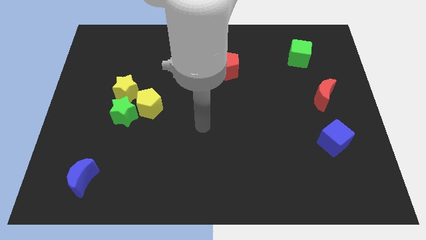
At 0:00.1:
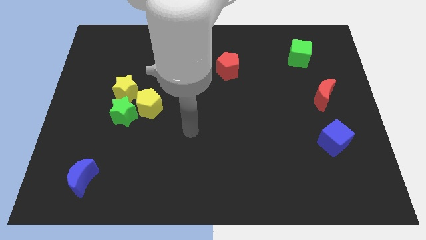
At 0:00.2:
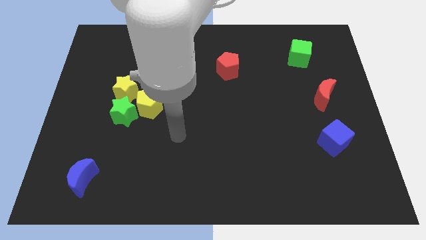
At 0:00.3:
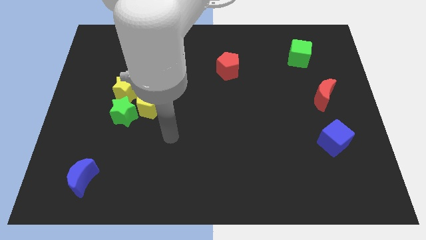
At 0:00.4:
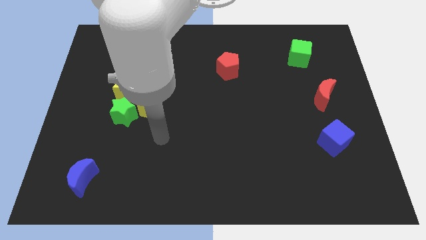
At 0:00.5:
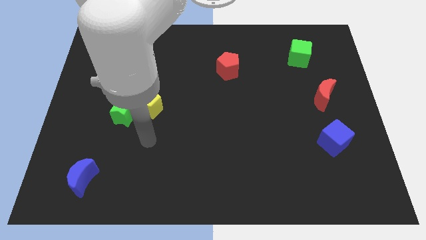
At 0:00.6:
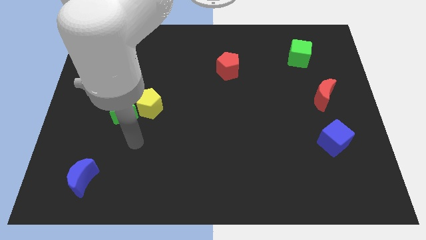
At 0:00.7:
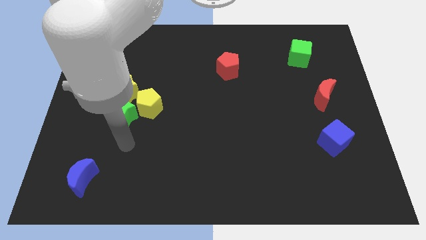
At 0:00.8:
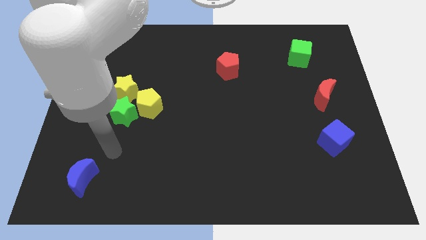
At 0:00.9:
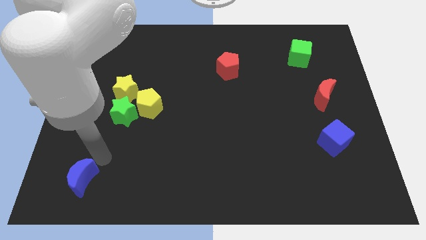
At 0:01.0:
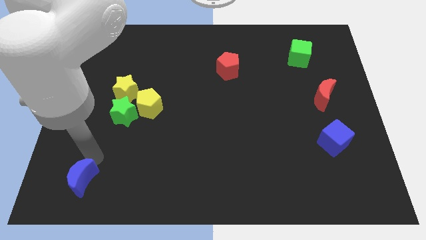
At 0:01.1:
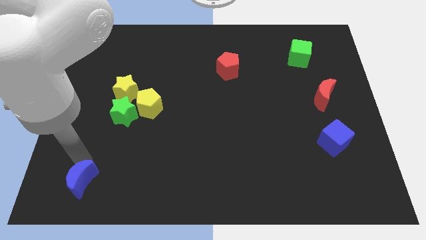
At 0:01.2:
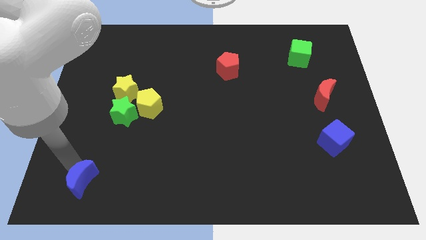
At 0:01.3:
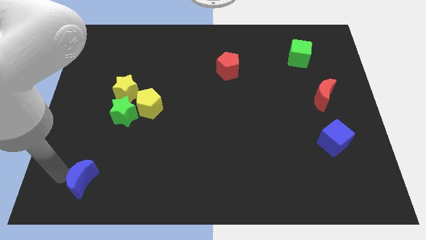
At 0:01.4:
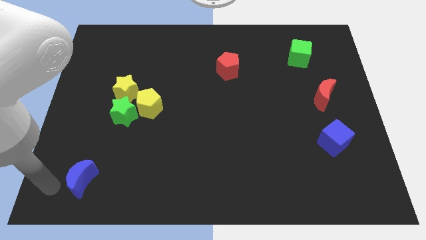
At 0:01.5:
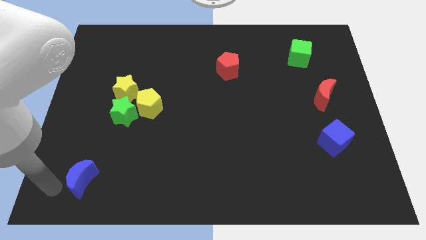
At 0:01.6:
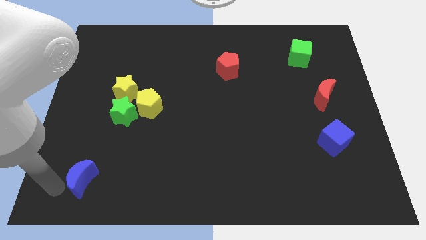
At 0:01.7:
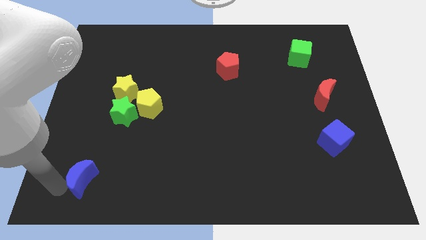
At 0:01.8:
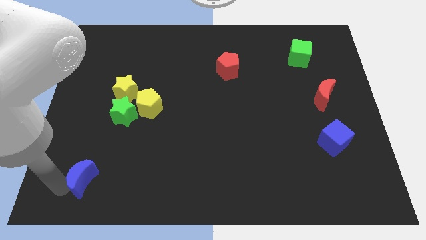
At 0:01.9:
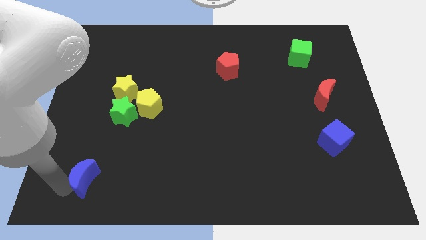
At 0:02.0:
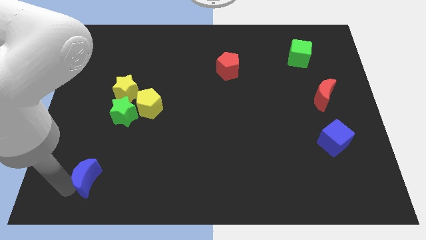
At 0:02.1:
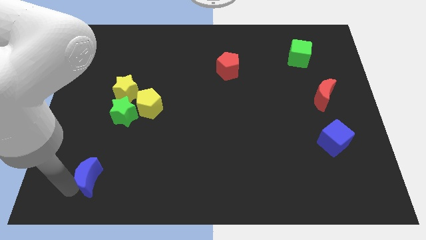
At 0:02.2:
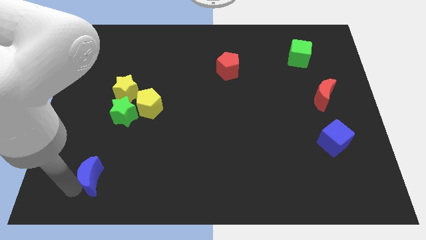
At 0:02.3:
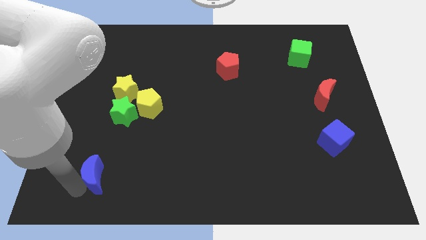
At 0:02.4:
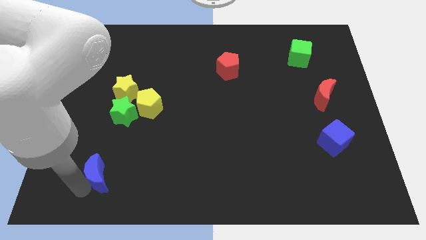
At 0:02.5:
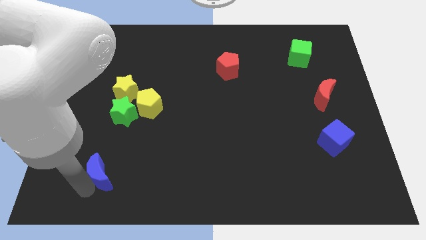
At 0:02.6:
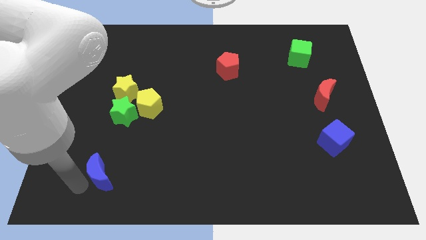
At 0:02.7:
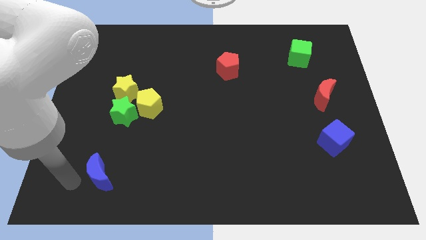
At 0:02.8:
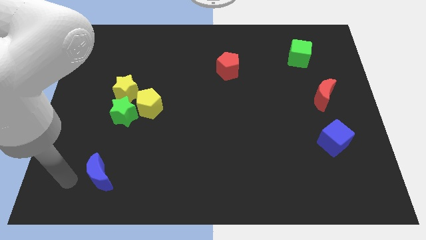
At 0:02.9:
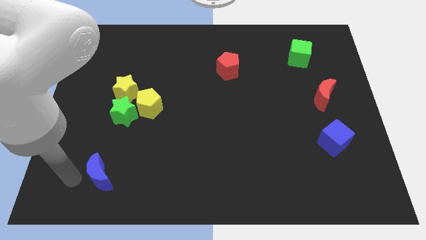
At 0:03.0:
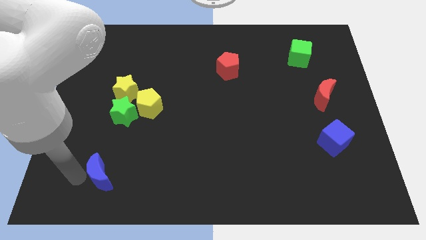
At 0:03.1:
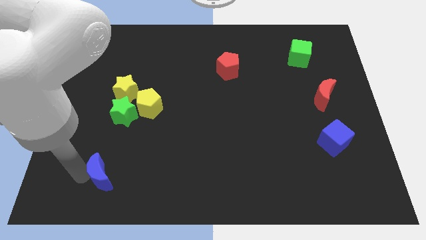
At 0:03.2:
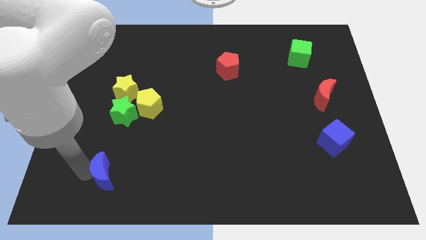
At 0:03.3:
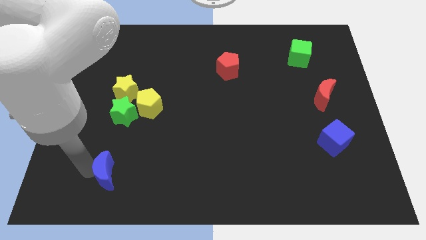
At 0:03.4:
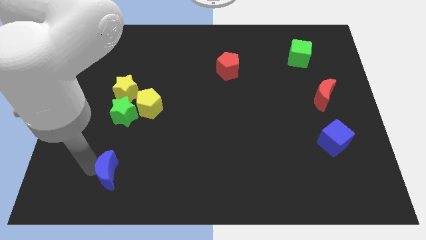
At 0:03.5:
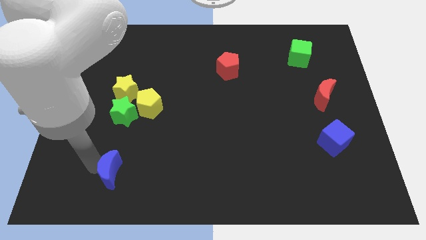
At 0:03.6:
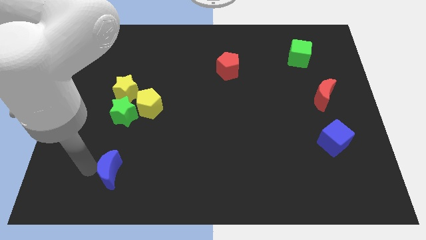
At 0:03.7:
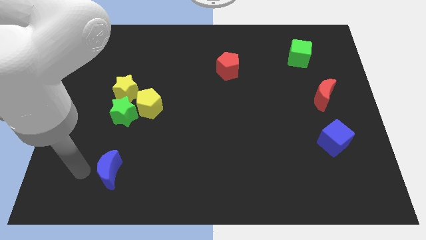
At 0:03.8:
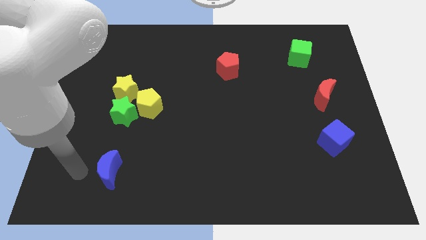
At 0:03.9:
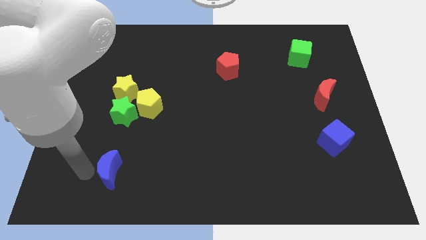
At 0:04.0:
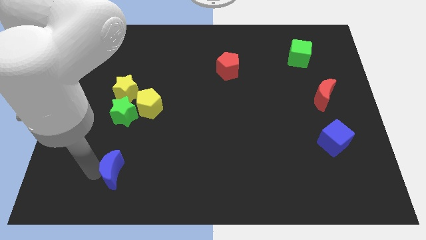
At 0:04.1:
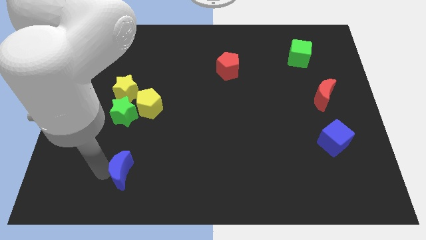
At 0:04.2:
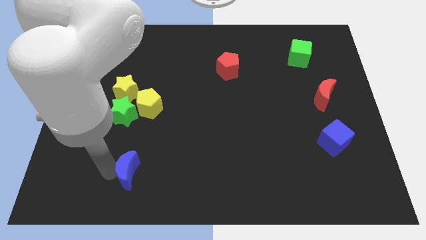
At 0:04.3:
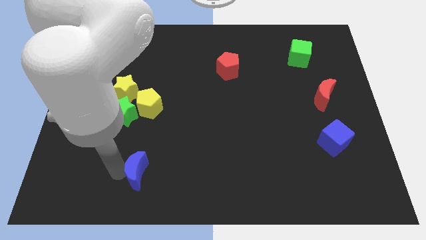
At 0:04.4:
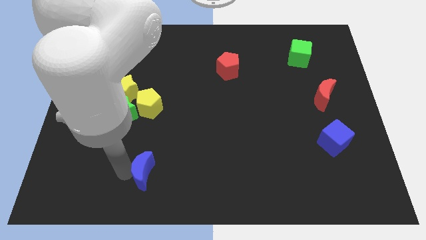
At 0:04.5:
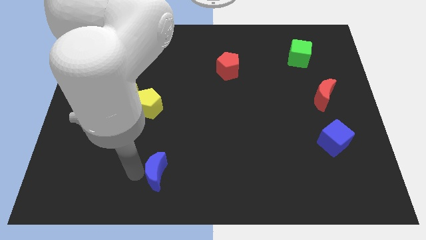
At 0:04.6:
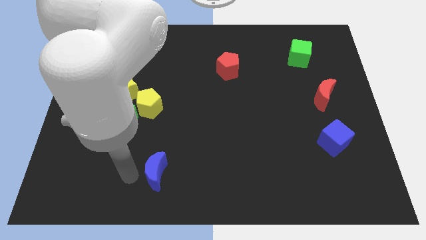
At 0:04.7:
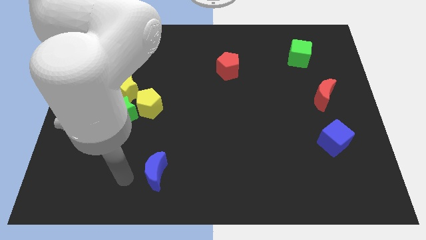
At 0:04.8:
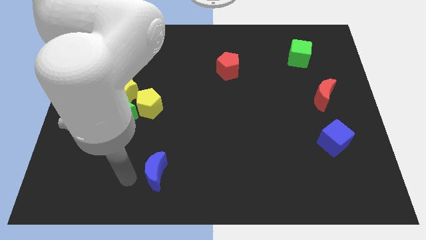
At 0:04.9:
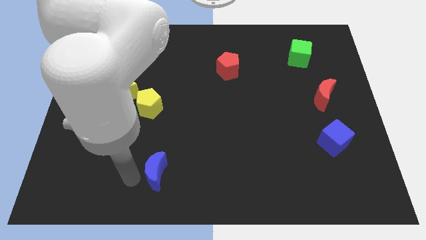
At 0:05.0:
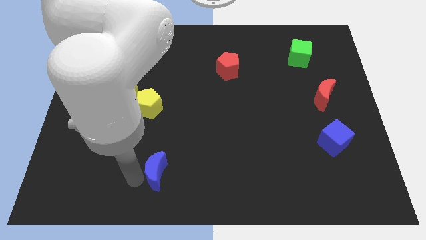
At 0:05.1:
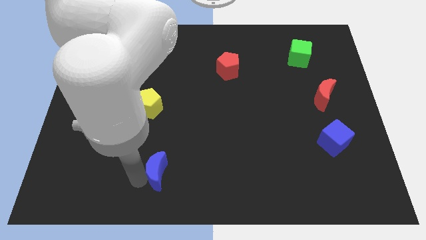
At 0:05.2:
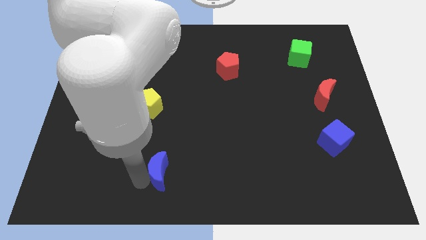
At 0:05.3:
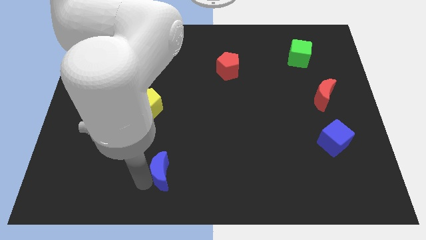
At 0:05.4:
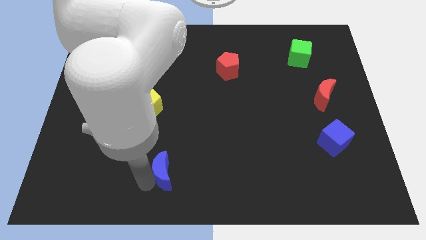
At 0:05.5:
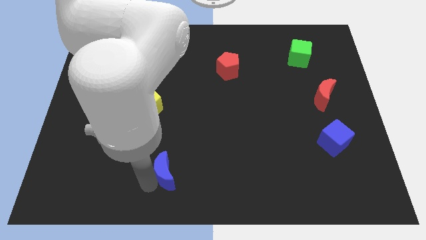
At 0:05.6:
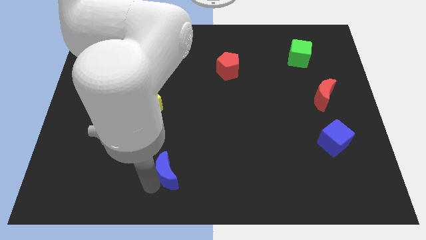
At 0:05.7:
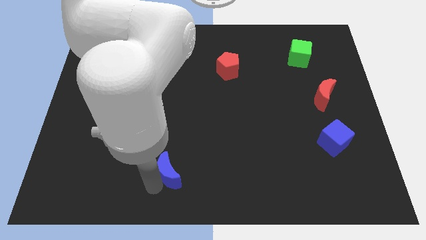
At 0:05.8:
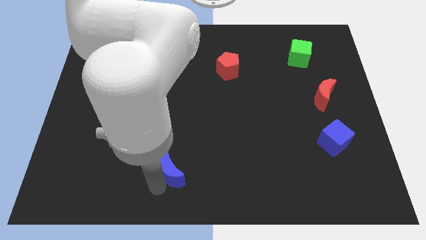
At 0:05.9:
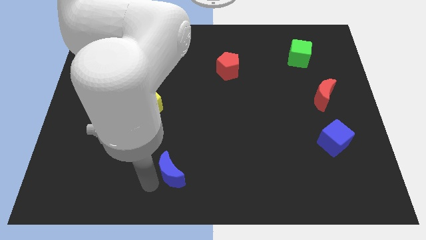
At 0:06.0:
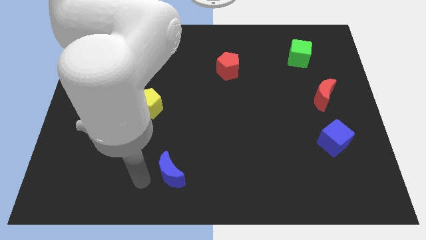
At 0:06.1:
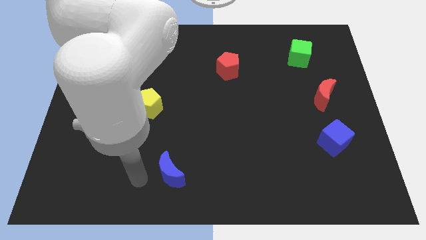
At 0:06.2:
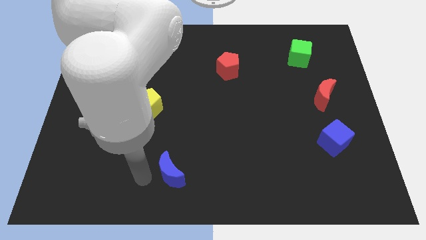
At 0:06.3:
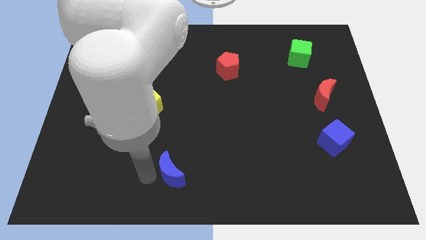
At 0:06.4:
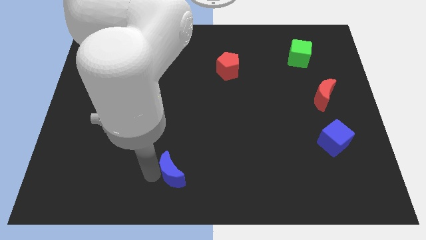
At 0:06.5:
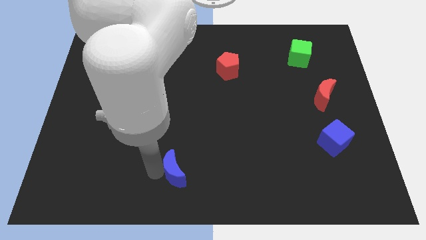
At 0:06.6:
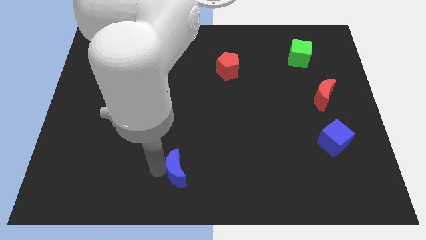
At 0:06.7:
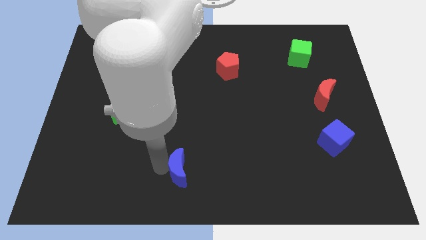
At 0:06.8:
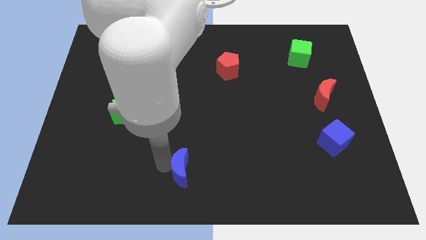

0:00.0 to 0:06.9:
push the blue moon right

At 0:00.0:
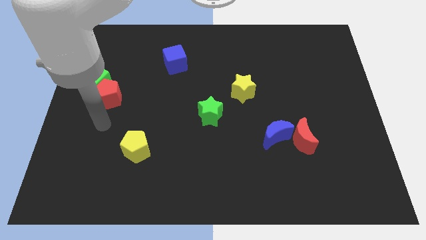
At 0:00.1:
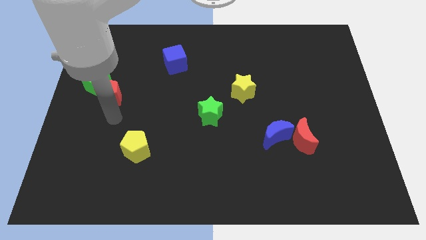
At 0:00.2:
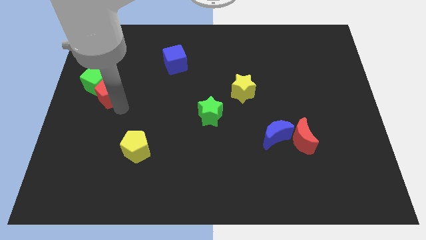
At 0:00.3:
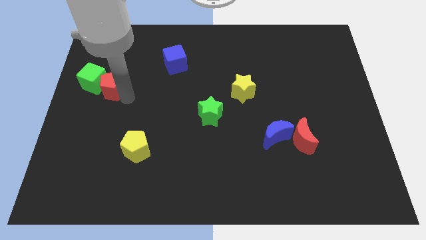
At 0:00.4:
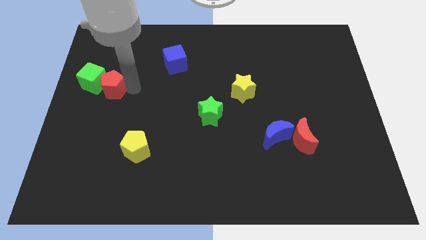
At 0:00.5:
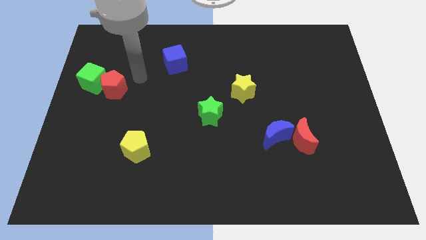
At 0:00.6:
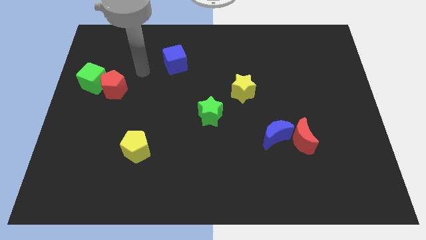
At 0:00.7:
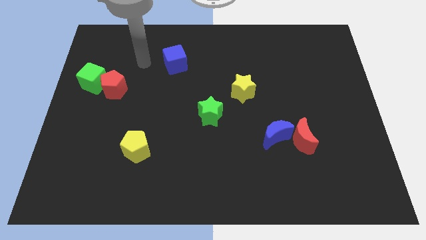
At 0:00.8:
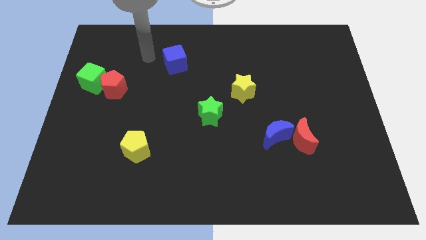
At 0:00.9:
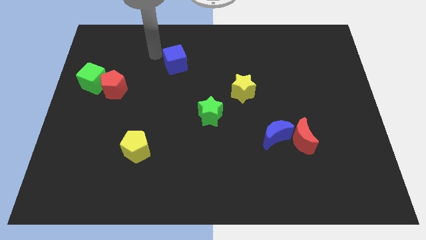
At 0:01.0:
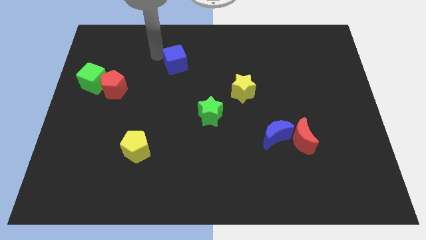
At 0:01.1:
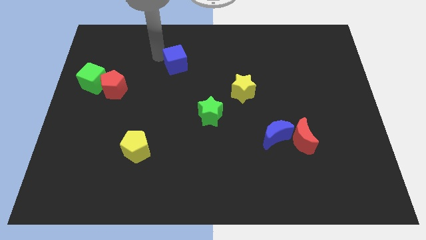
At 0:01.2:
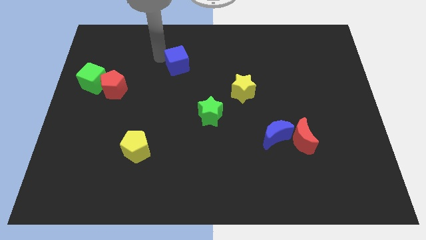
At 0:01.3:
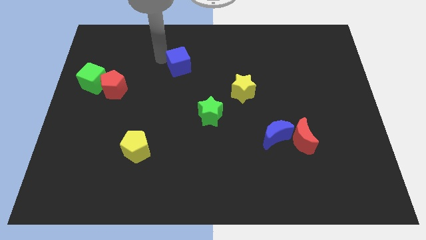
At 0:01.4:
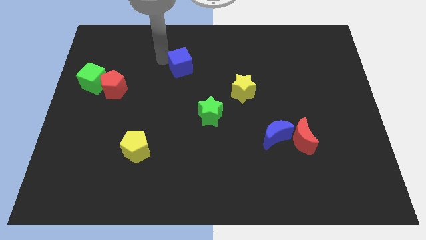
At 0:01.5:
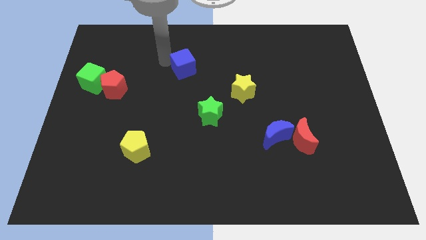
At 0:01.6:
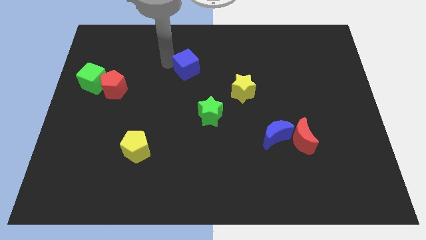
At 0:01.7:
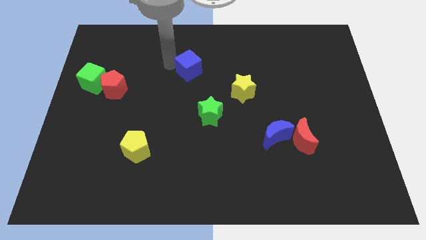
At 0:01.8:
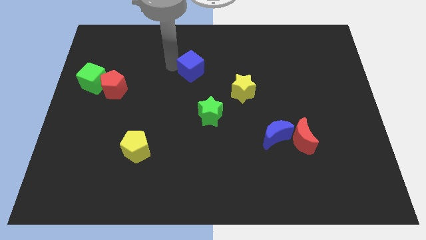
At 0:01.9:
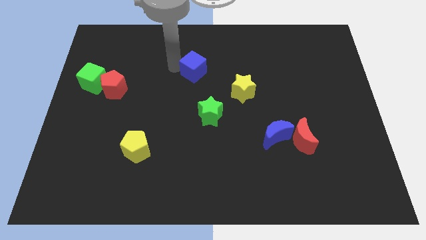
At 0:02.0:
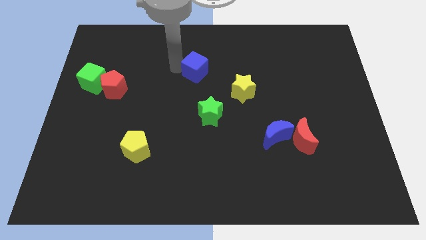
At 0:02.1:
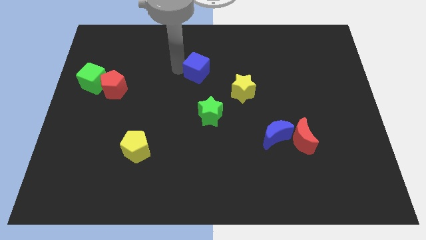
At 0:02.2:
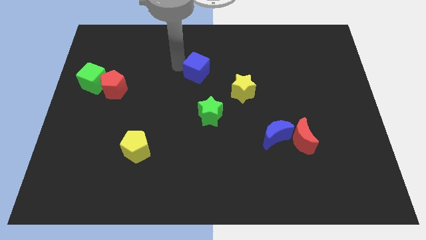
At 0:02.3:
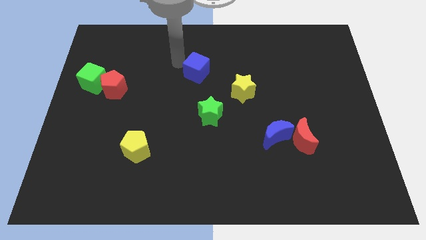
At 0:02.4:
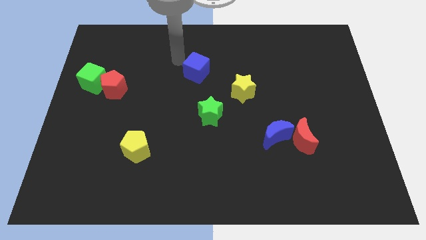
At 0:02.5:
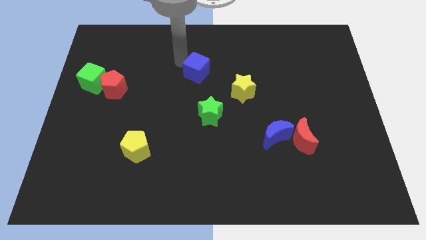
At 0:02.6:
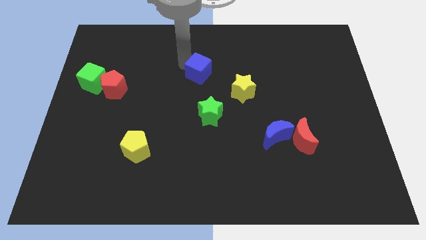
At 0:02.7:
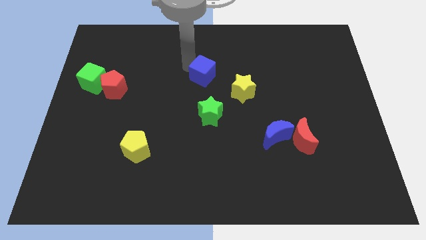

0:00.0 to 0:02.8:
push the blue cube down and then to the right a little bit
